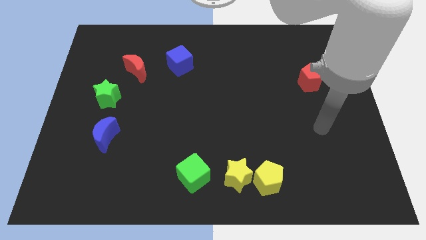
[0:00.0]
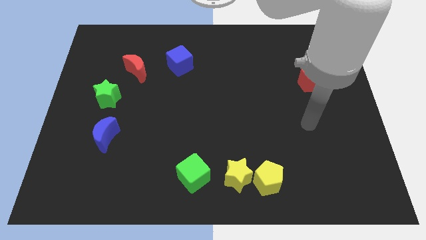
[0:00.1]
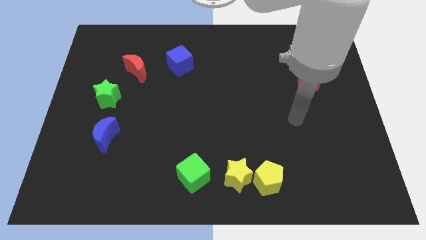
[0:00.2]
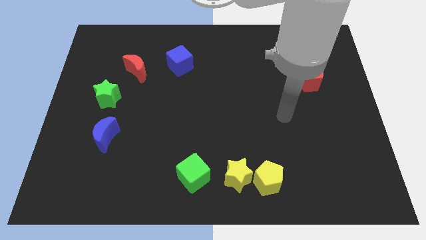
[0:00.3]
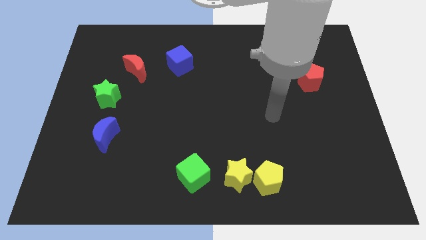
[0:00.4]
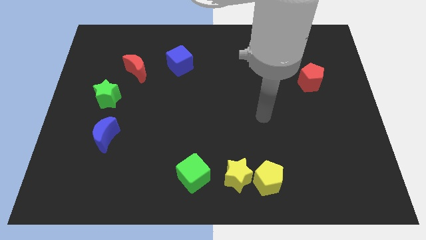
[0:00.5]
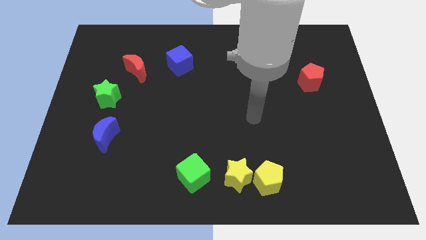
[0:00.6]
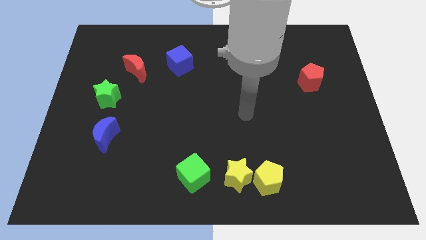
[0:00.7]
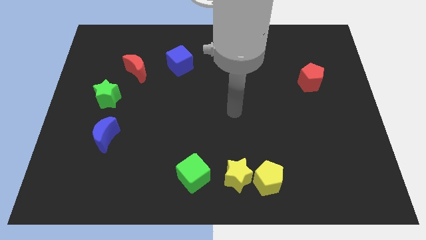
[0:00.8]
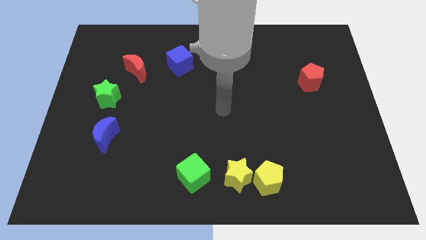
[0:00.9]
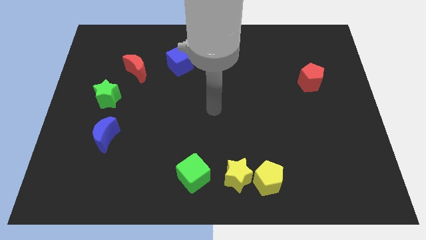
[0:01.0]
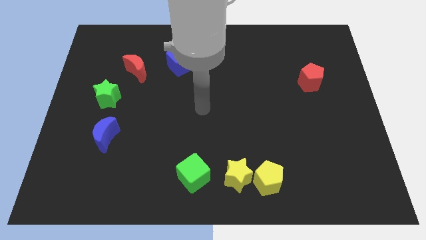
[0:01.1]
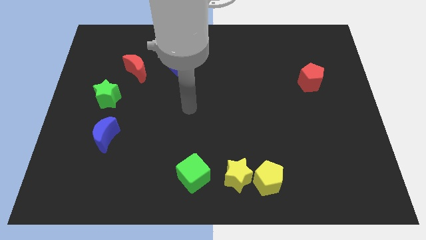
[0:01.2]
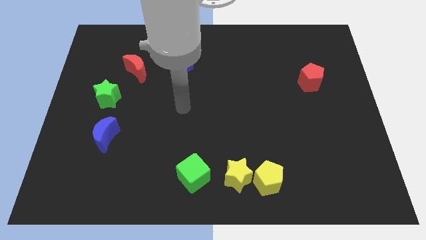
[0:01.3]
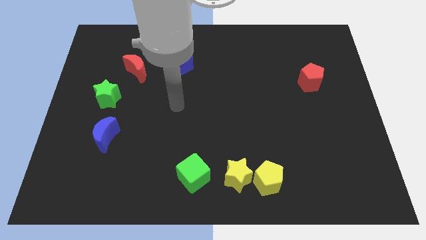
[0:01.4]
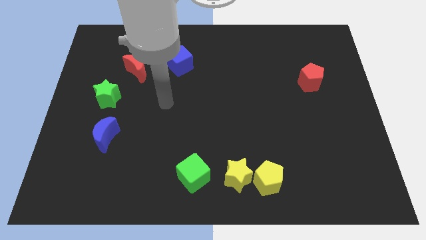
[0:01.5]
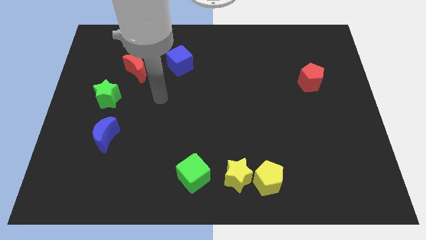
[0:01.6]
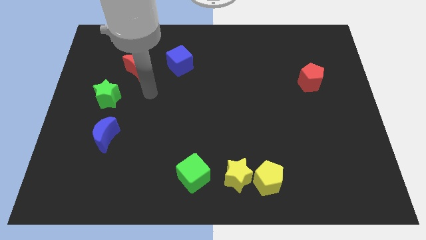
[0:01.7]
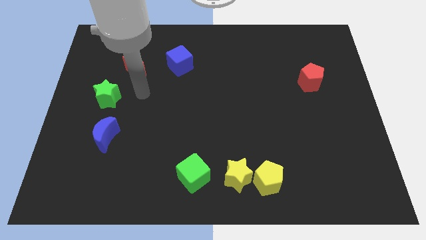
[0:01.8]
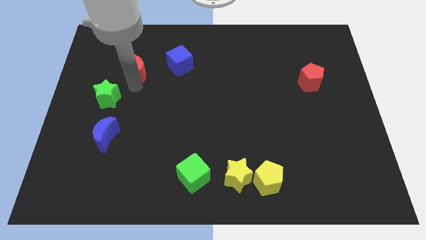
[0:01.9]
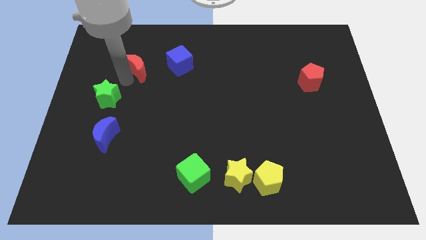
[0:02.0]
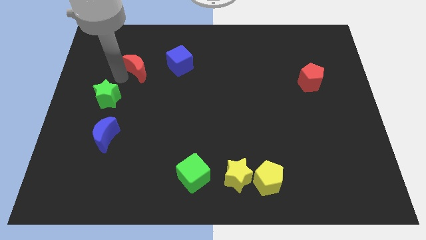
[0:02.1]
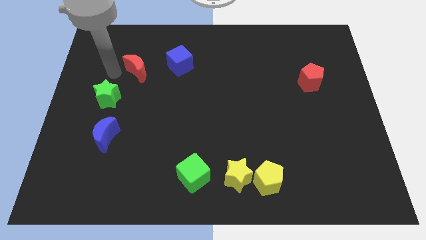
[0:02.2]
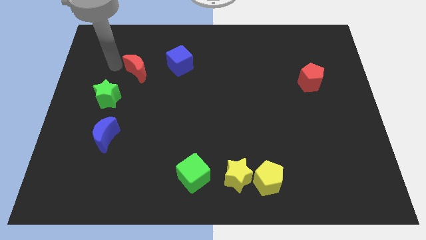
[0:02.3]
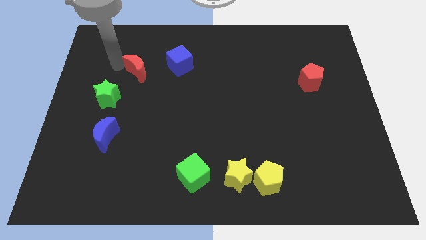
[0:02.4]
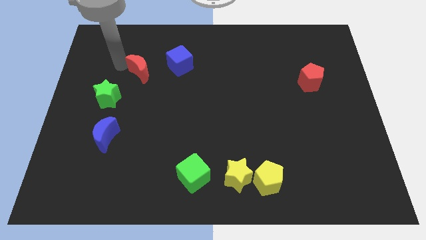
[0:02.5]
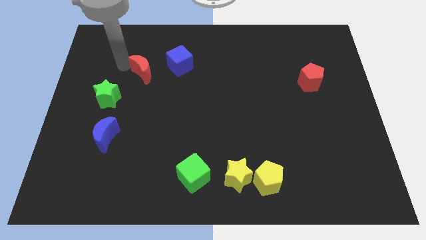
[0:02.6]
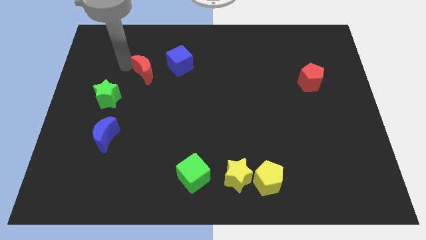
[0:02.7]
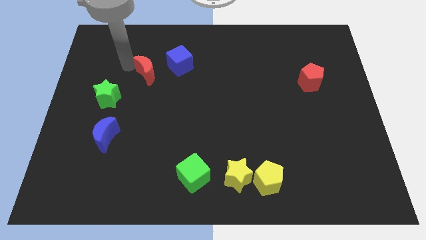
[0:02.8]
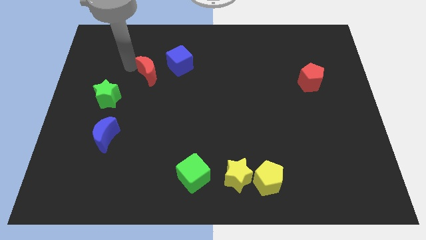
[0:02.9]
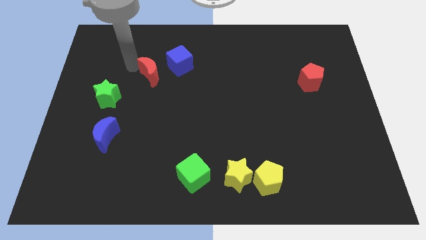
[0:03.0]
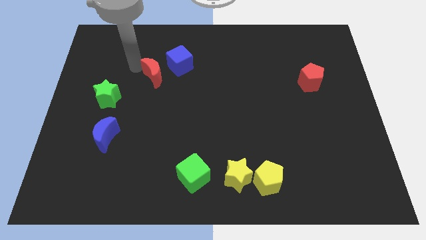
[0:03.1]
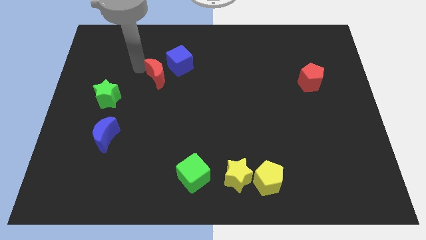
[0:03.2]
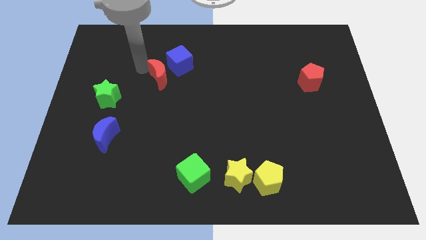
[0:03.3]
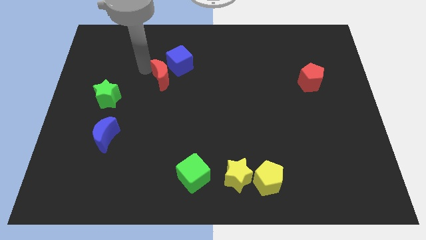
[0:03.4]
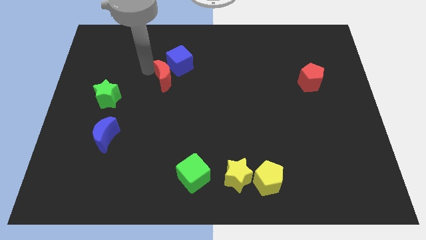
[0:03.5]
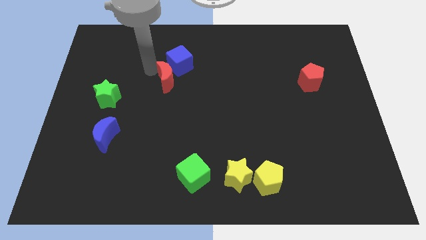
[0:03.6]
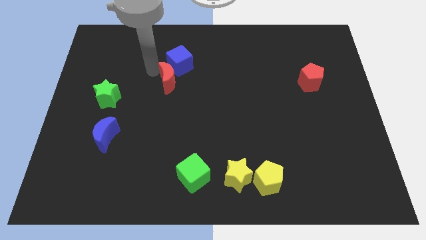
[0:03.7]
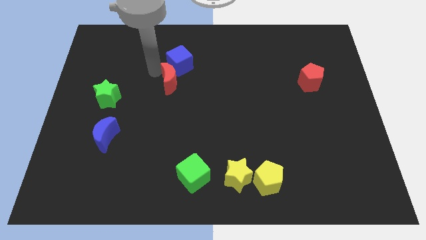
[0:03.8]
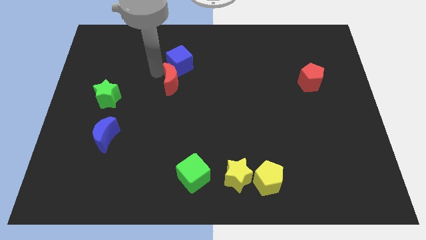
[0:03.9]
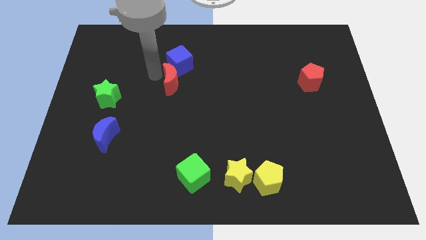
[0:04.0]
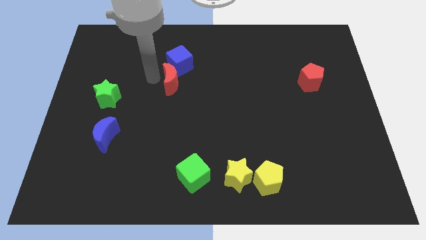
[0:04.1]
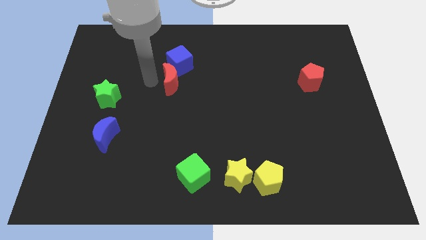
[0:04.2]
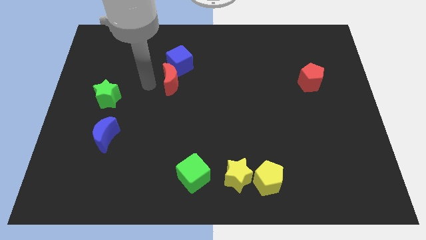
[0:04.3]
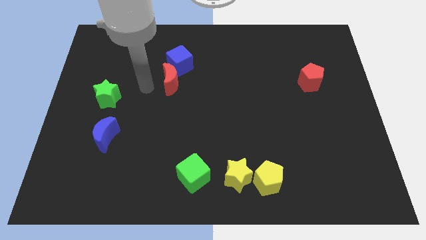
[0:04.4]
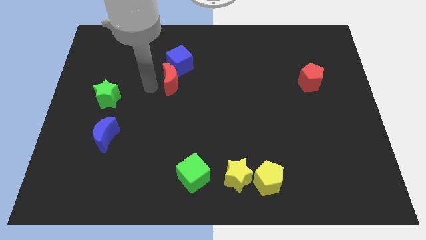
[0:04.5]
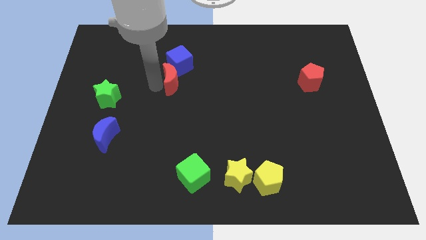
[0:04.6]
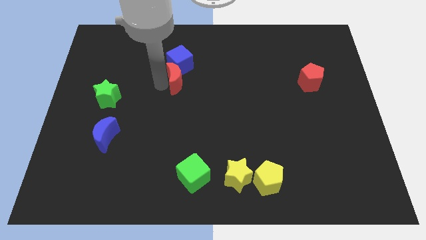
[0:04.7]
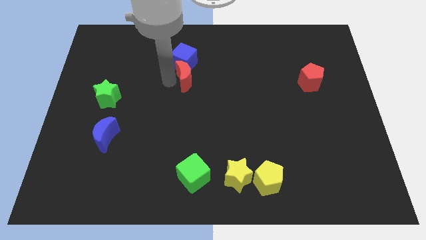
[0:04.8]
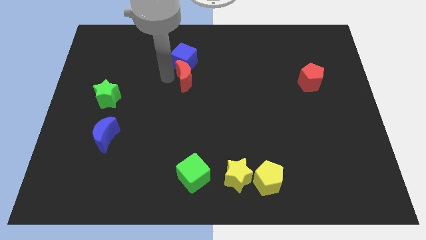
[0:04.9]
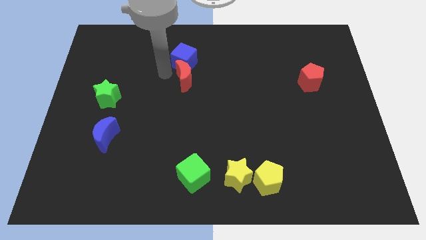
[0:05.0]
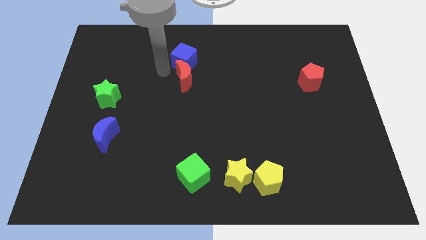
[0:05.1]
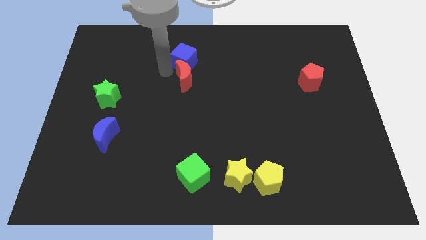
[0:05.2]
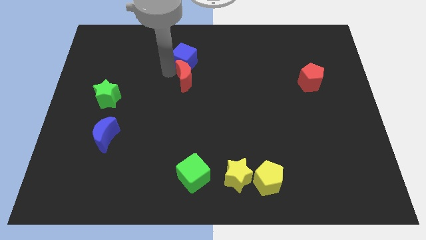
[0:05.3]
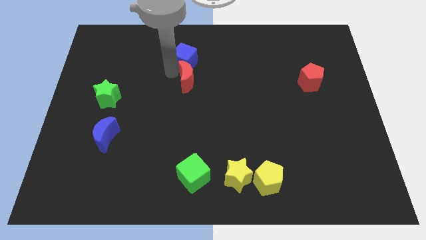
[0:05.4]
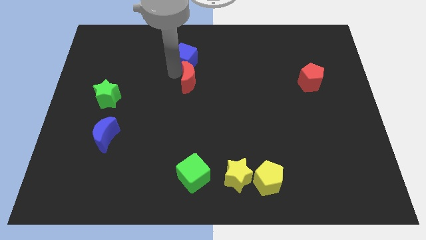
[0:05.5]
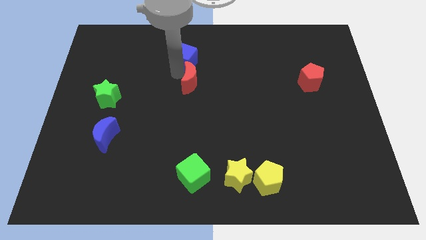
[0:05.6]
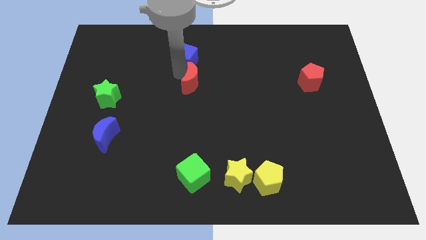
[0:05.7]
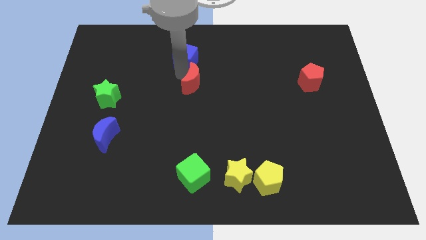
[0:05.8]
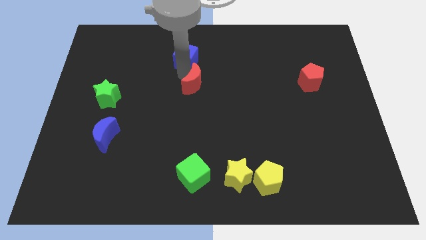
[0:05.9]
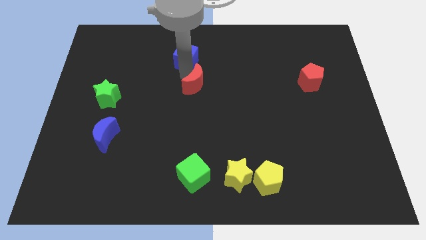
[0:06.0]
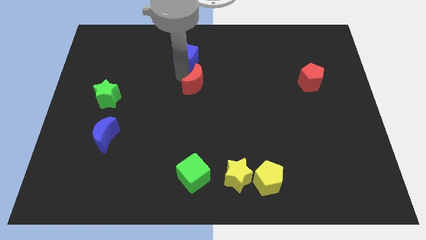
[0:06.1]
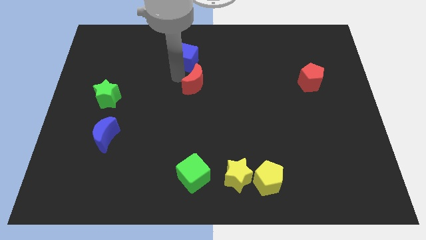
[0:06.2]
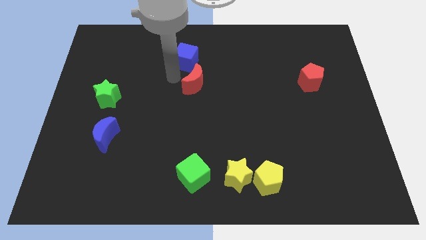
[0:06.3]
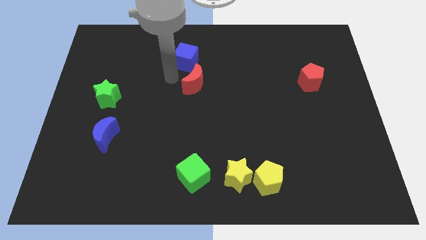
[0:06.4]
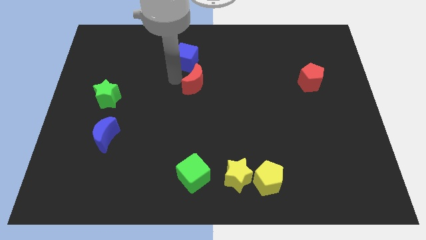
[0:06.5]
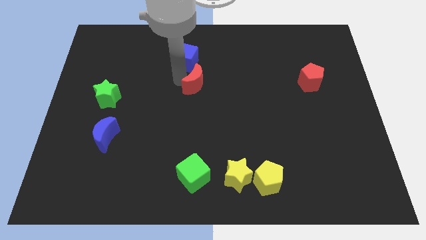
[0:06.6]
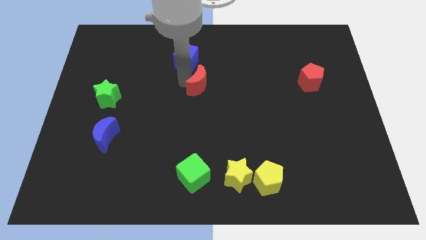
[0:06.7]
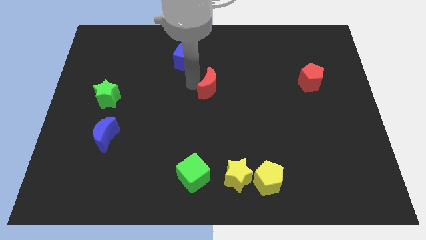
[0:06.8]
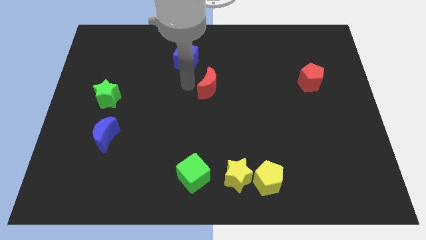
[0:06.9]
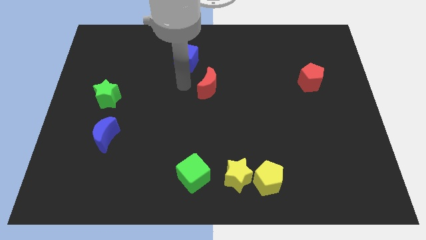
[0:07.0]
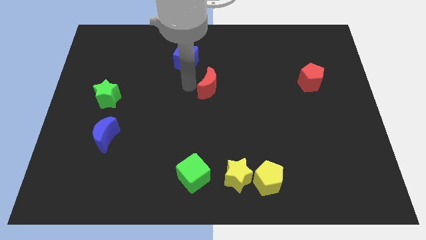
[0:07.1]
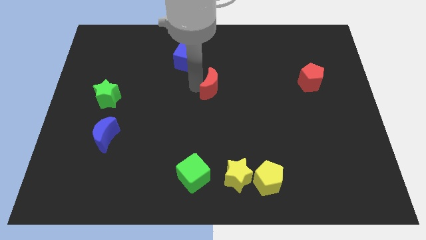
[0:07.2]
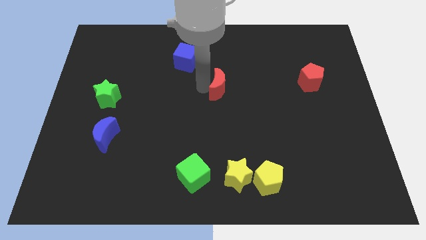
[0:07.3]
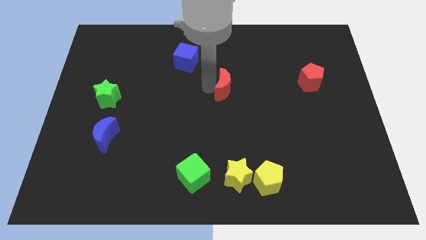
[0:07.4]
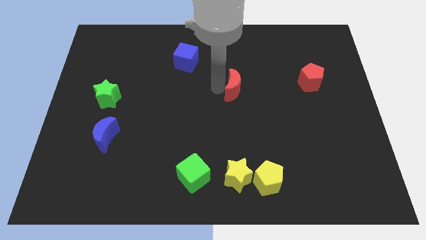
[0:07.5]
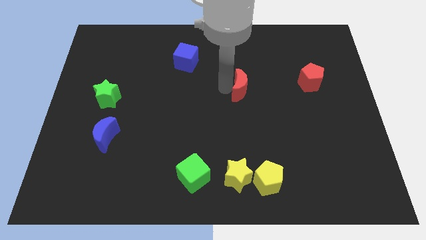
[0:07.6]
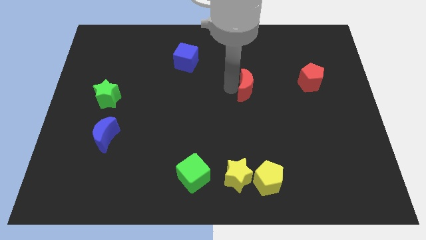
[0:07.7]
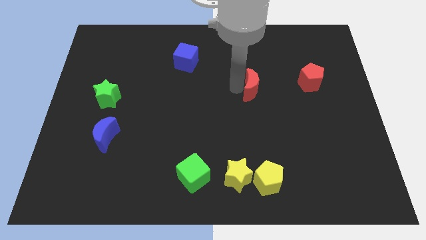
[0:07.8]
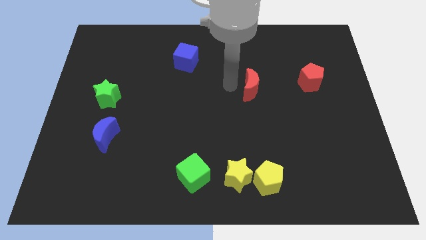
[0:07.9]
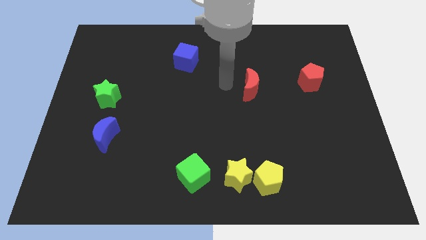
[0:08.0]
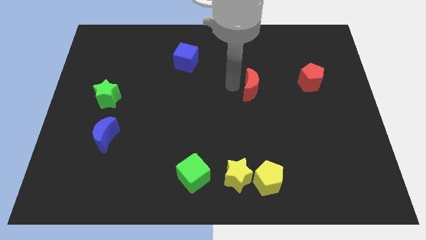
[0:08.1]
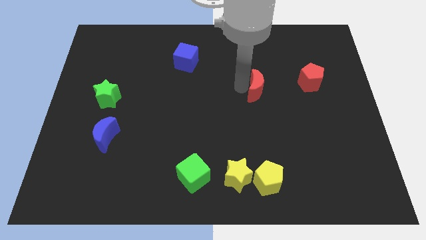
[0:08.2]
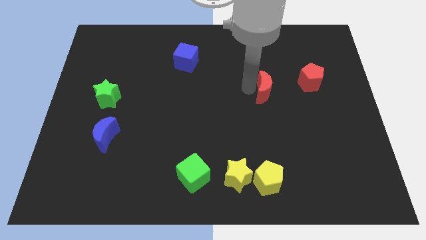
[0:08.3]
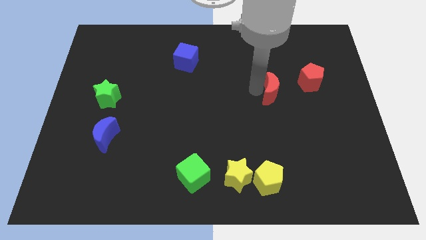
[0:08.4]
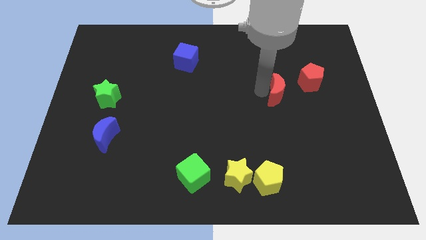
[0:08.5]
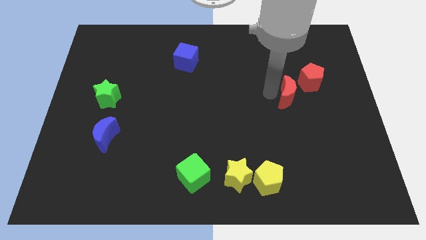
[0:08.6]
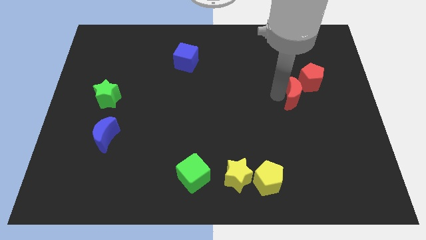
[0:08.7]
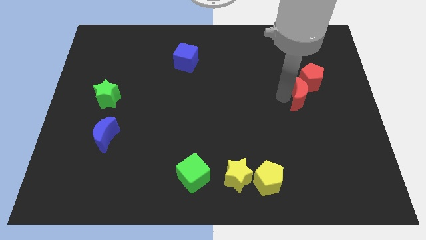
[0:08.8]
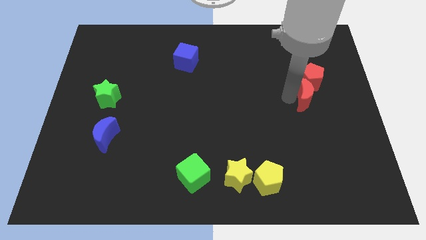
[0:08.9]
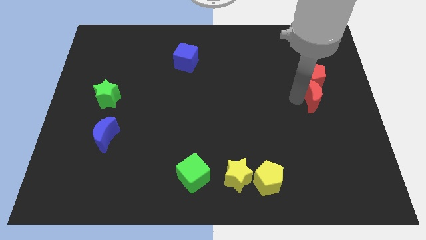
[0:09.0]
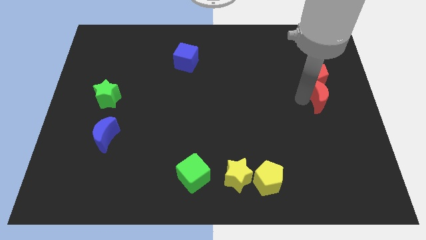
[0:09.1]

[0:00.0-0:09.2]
slide the red moon to the right side of the board
